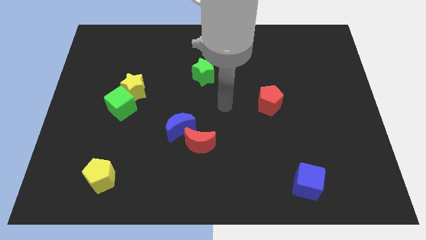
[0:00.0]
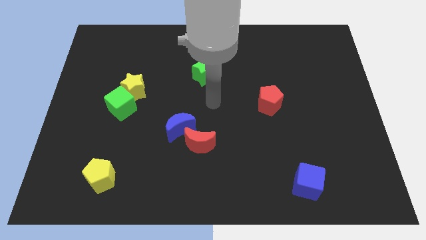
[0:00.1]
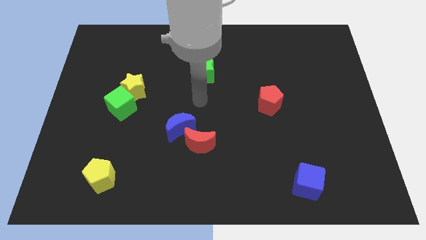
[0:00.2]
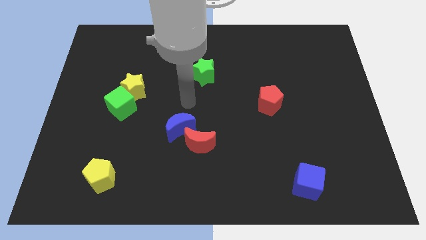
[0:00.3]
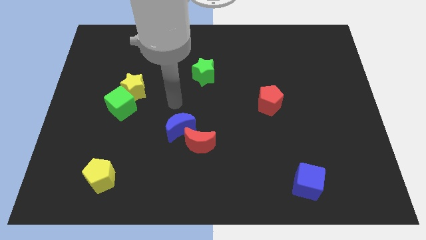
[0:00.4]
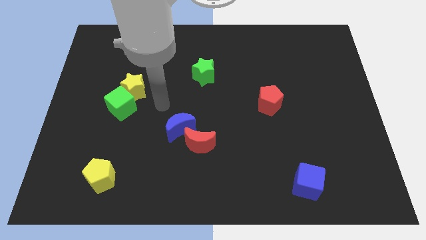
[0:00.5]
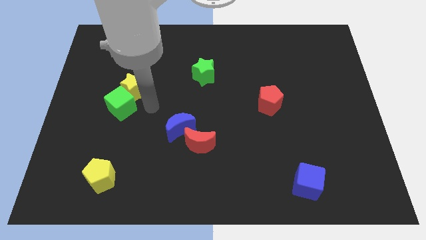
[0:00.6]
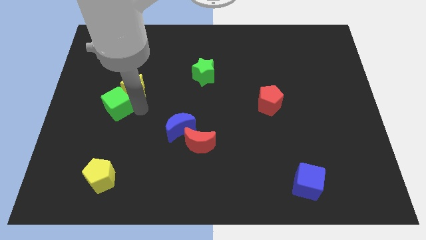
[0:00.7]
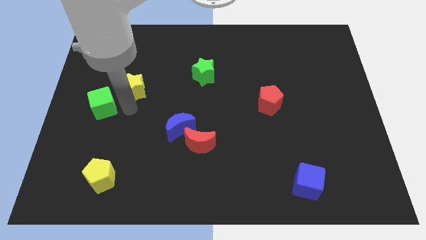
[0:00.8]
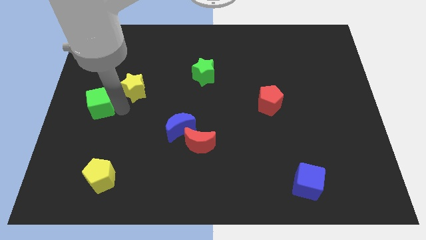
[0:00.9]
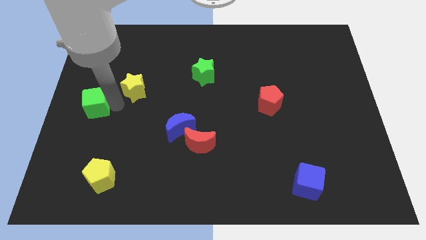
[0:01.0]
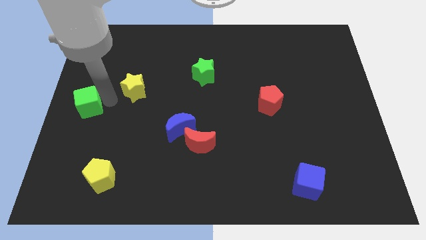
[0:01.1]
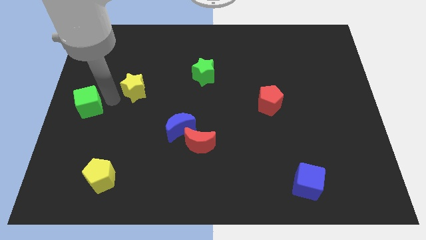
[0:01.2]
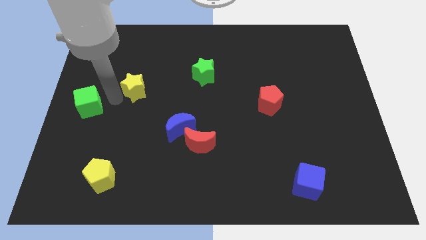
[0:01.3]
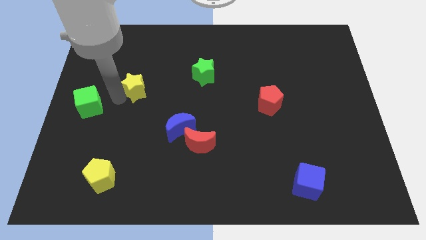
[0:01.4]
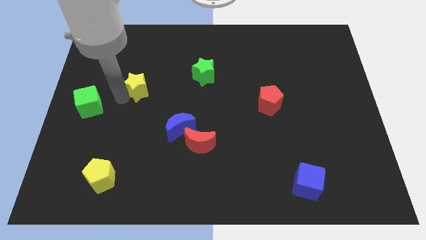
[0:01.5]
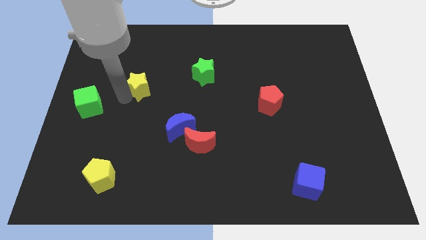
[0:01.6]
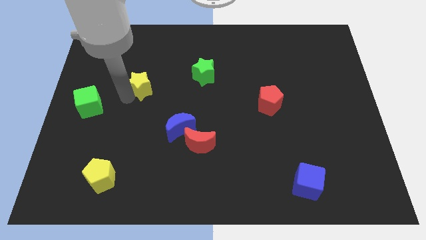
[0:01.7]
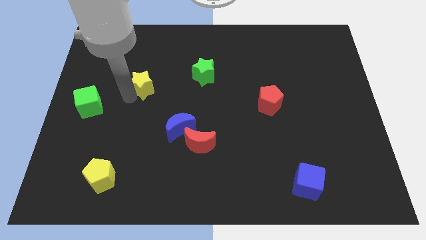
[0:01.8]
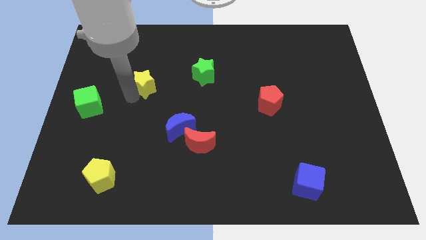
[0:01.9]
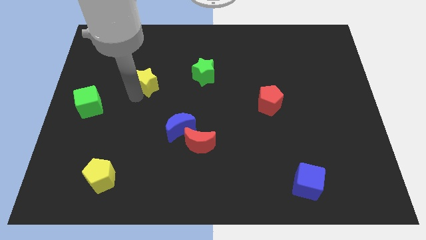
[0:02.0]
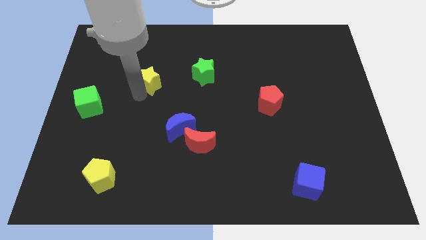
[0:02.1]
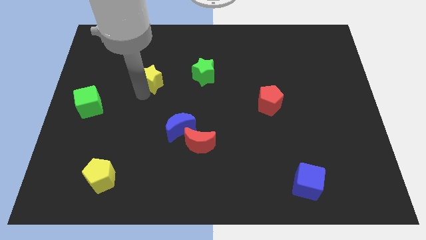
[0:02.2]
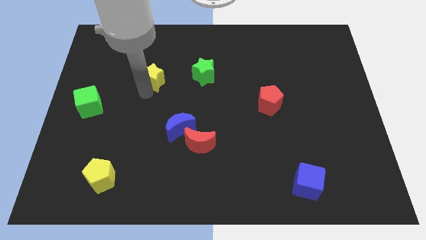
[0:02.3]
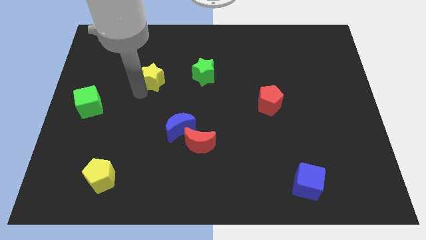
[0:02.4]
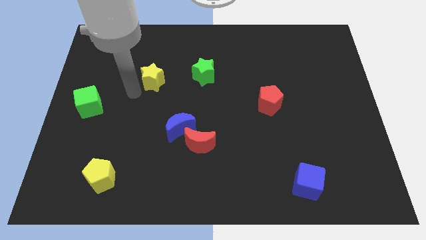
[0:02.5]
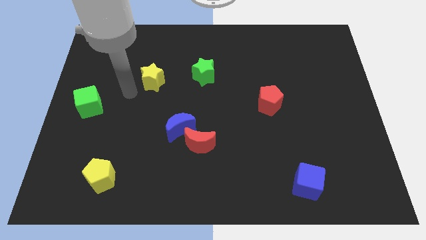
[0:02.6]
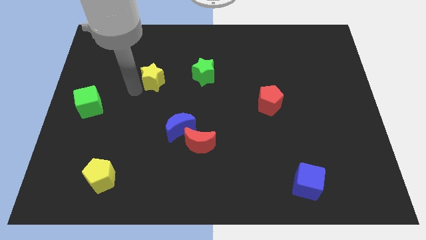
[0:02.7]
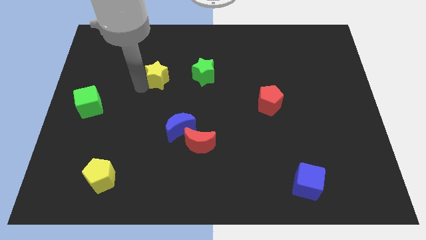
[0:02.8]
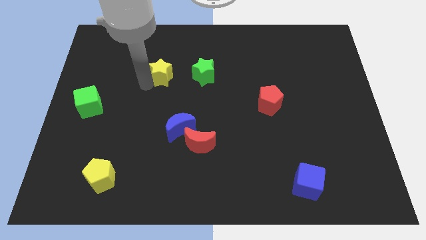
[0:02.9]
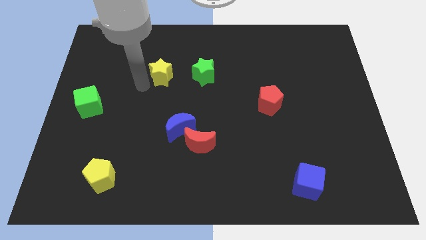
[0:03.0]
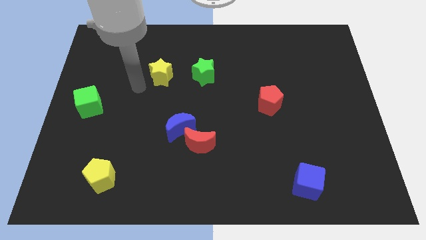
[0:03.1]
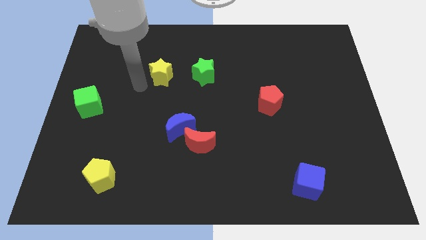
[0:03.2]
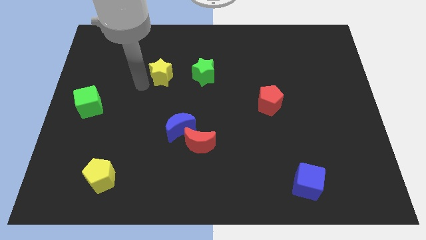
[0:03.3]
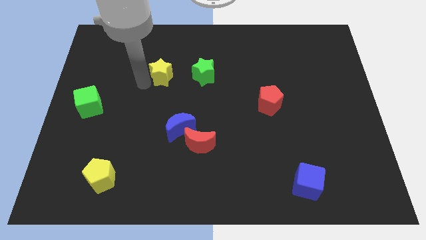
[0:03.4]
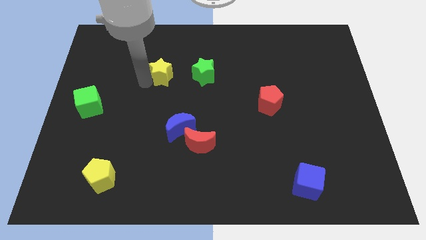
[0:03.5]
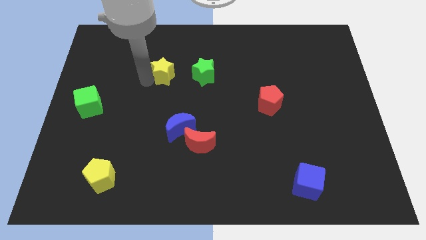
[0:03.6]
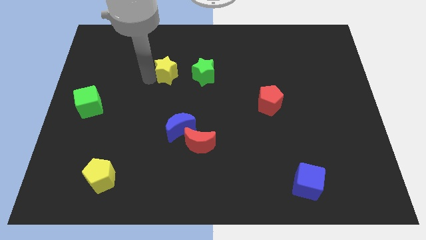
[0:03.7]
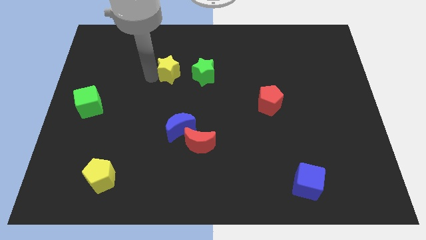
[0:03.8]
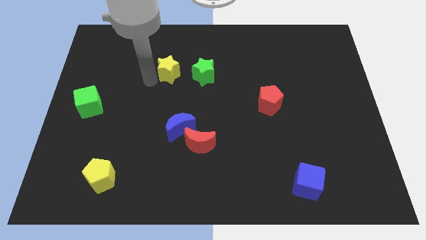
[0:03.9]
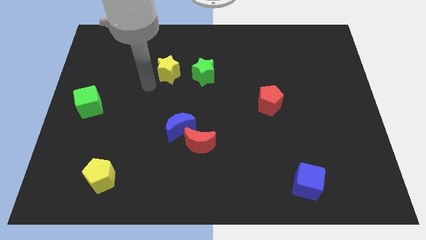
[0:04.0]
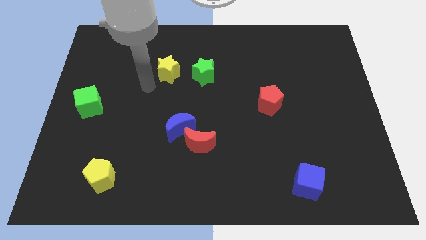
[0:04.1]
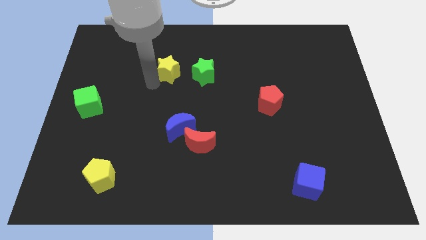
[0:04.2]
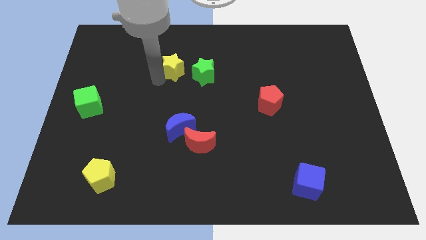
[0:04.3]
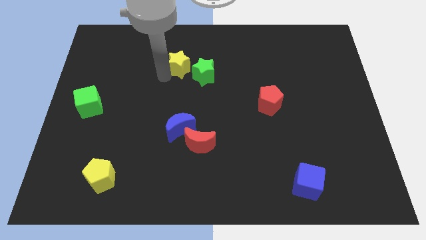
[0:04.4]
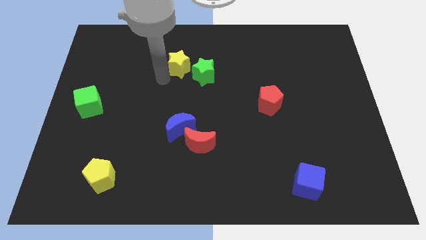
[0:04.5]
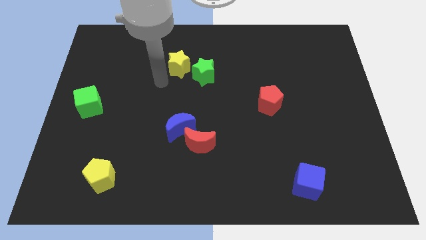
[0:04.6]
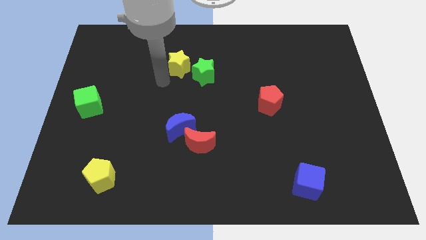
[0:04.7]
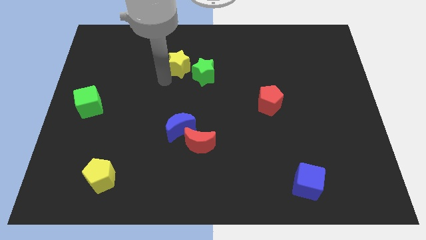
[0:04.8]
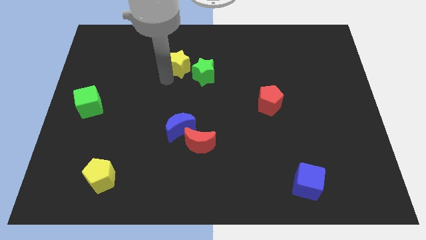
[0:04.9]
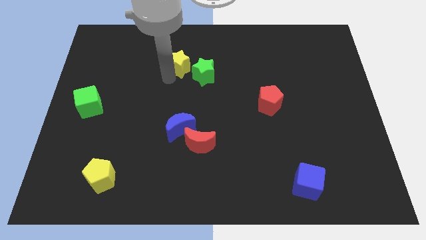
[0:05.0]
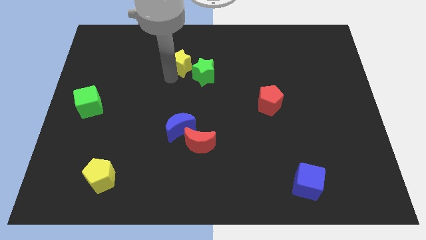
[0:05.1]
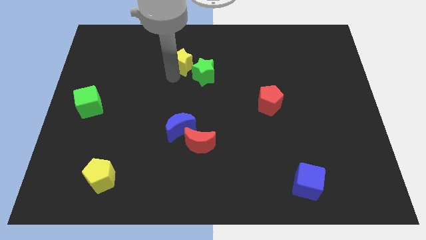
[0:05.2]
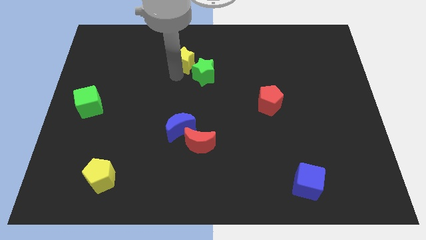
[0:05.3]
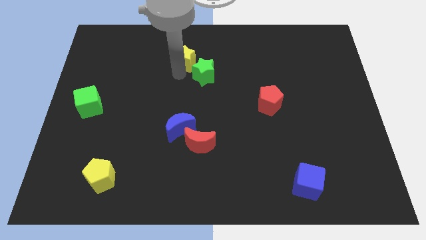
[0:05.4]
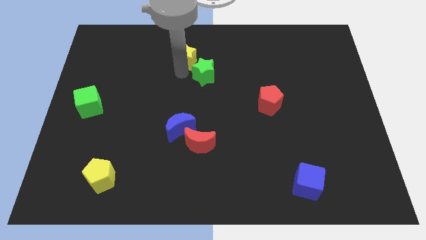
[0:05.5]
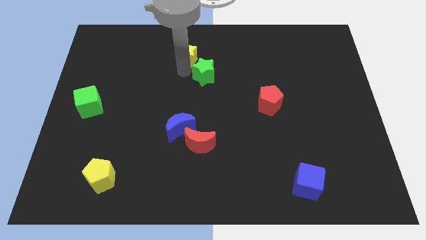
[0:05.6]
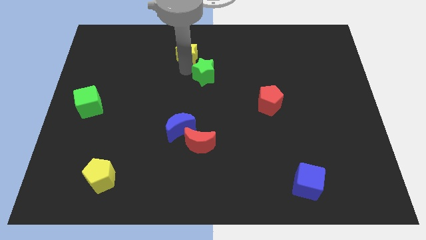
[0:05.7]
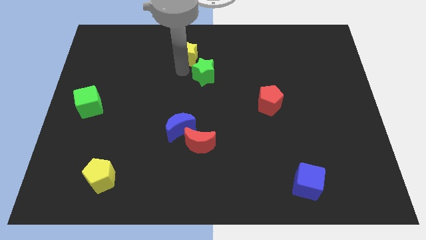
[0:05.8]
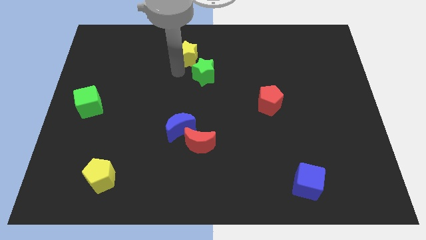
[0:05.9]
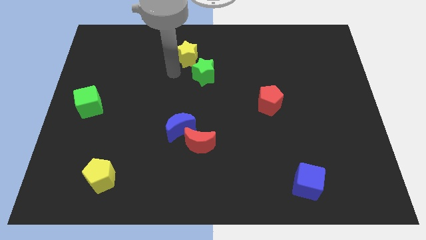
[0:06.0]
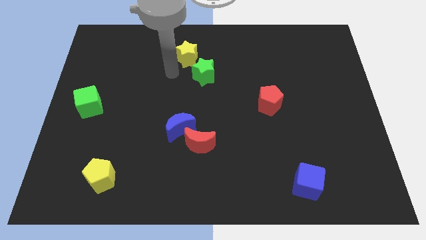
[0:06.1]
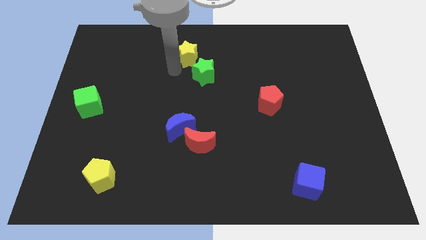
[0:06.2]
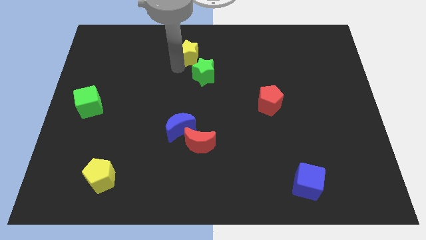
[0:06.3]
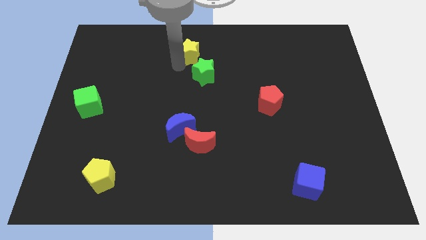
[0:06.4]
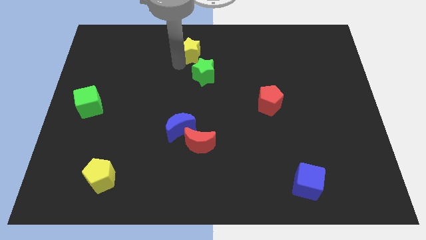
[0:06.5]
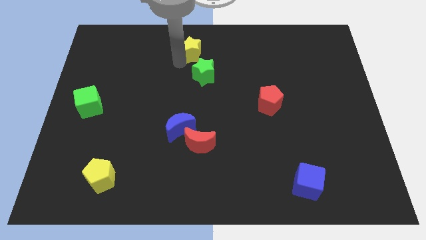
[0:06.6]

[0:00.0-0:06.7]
put the yellow star to the top
